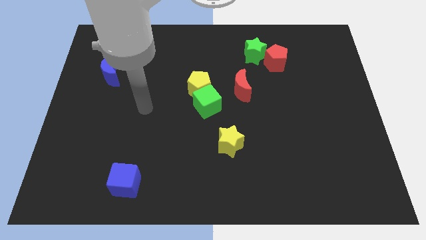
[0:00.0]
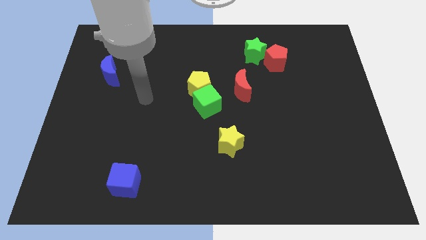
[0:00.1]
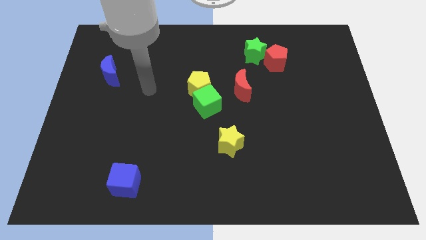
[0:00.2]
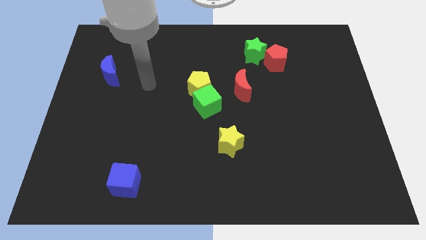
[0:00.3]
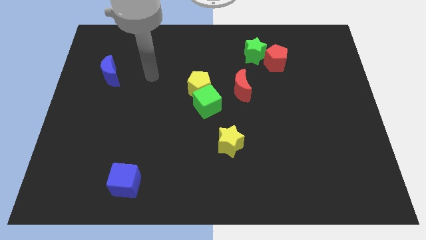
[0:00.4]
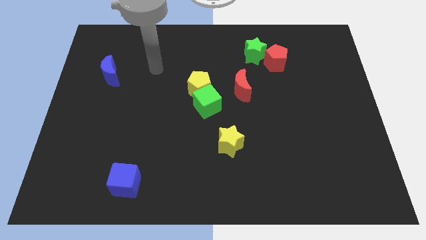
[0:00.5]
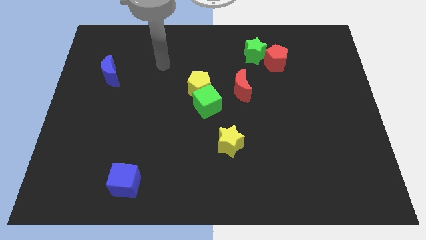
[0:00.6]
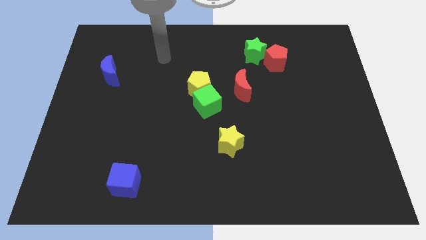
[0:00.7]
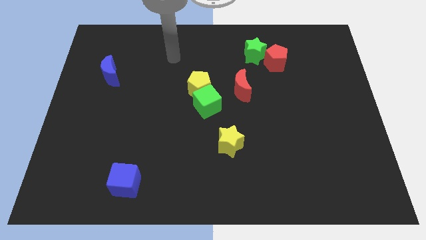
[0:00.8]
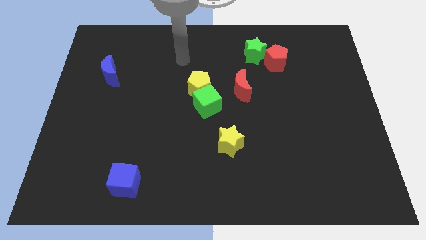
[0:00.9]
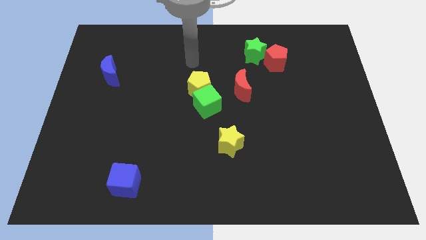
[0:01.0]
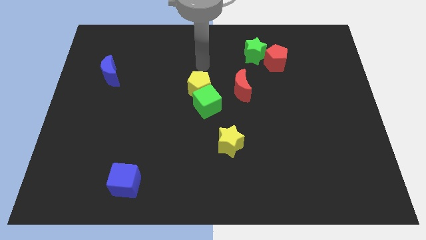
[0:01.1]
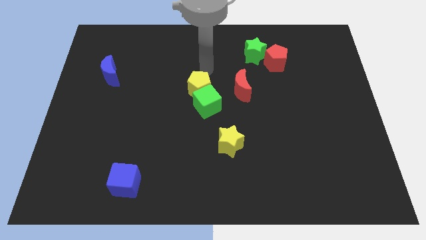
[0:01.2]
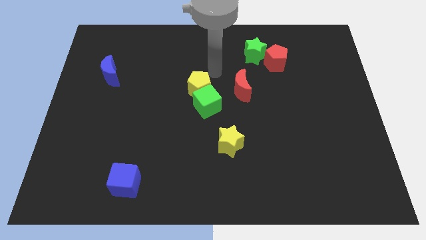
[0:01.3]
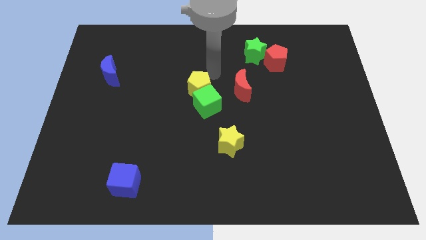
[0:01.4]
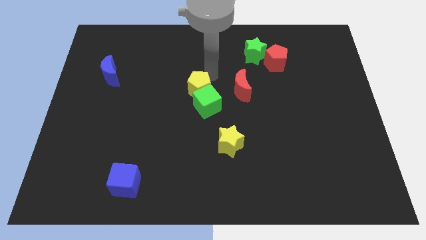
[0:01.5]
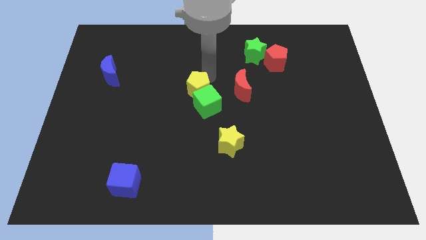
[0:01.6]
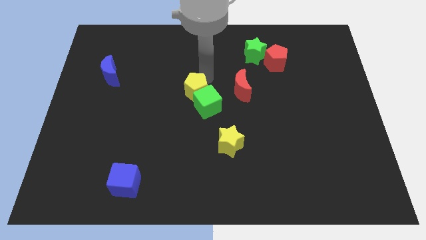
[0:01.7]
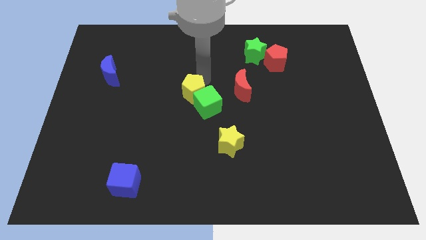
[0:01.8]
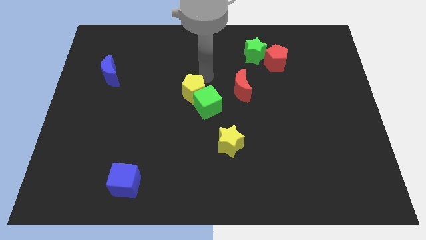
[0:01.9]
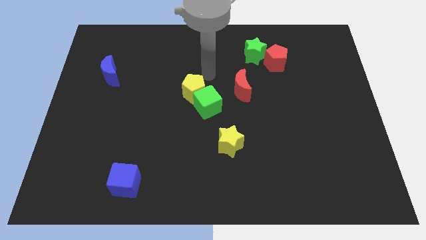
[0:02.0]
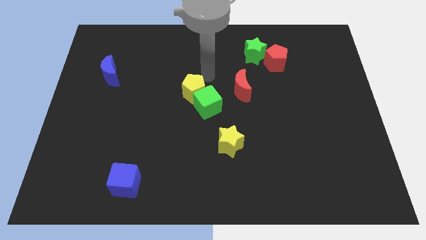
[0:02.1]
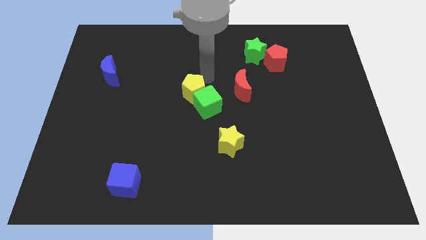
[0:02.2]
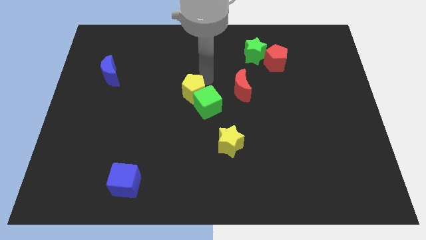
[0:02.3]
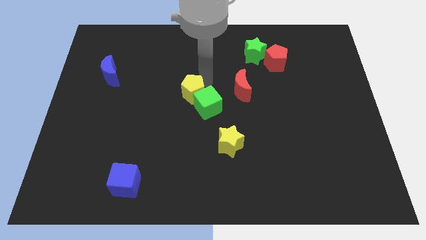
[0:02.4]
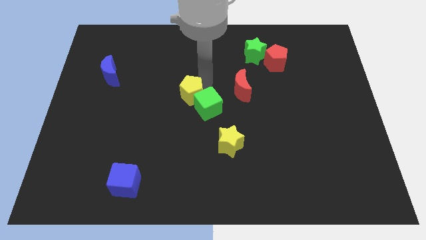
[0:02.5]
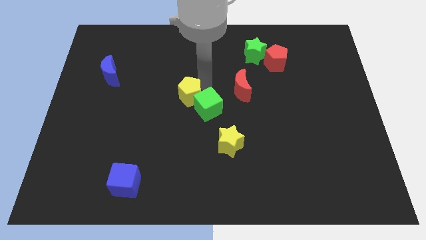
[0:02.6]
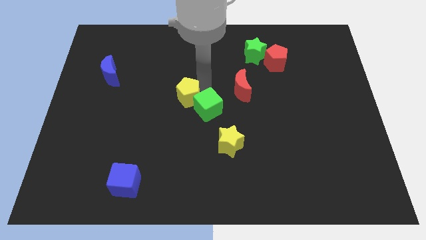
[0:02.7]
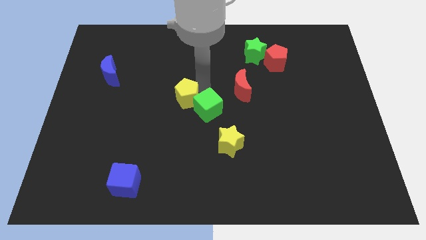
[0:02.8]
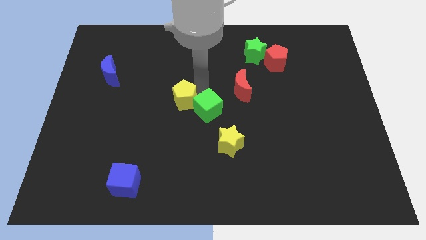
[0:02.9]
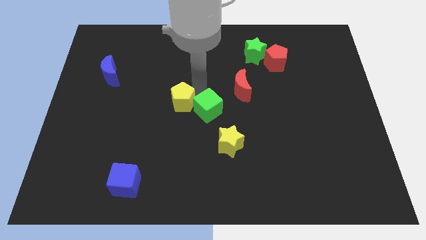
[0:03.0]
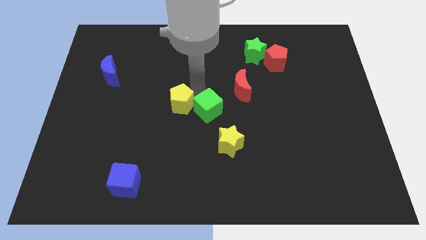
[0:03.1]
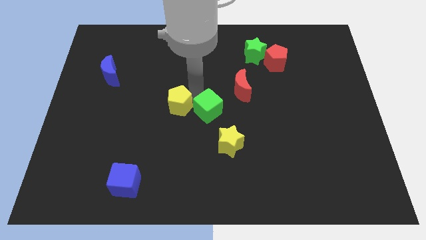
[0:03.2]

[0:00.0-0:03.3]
move the yellow pentagon somewhat downwards and then left

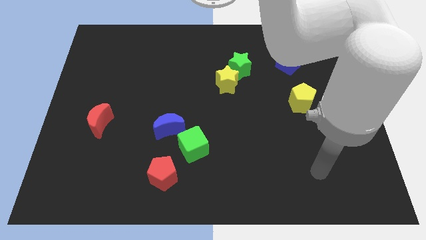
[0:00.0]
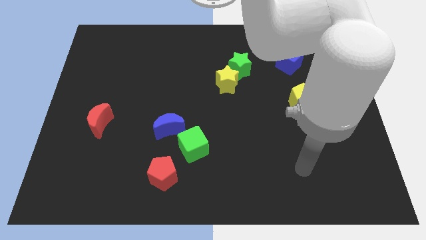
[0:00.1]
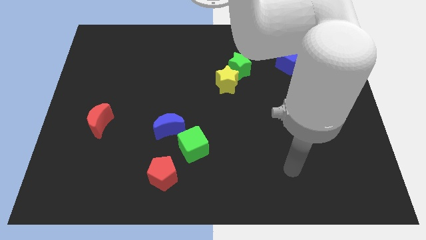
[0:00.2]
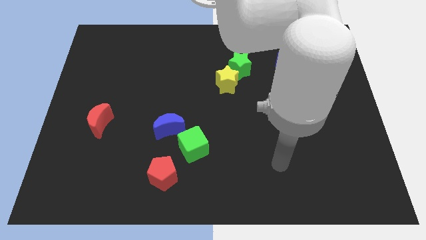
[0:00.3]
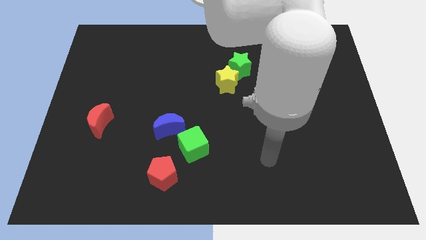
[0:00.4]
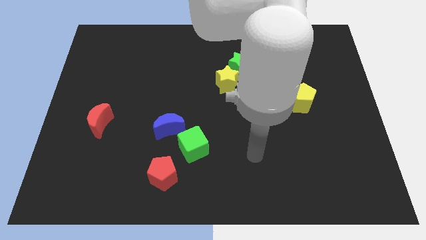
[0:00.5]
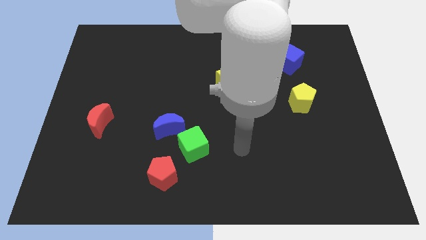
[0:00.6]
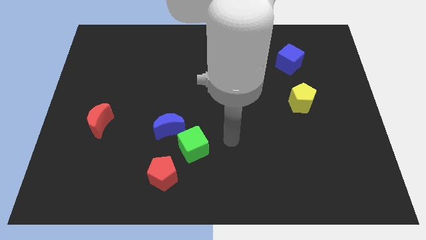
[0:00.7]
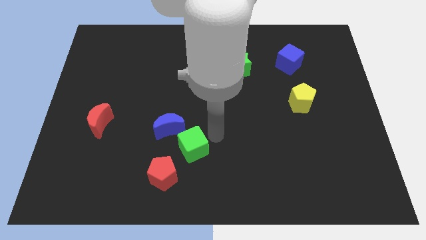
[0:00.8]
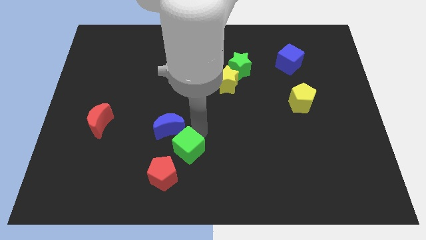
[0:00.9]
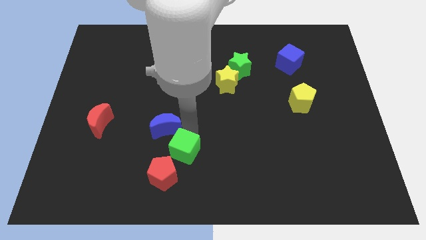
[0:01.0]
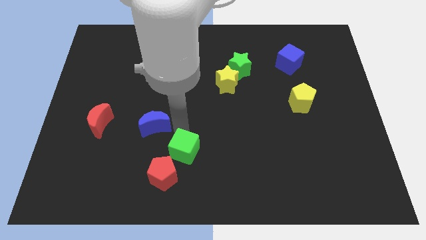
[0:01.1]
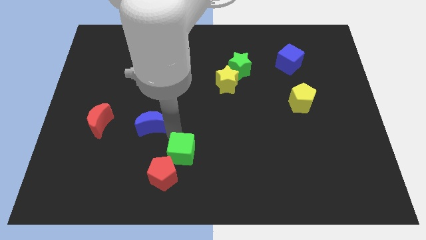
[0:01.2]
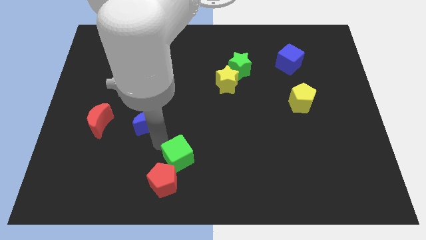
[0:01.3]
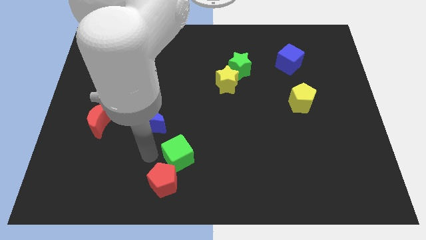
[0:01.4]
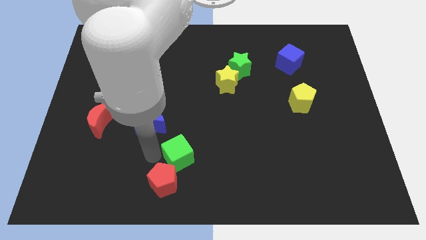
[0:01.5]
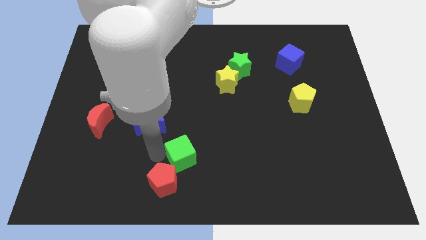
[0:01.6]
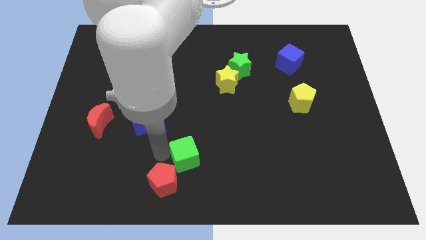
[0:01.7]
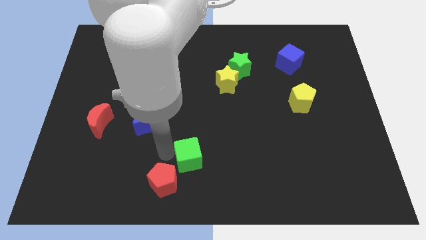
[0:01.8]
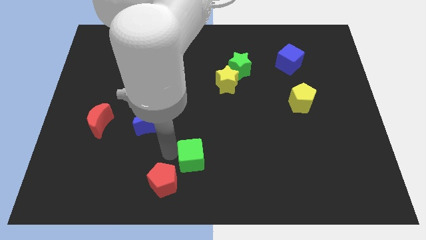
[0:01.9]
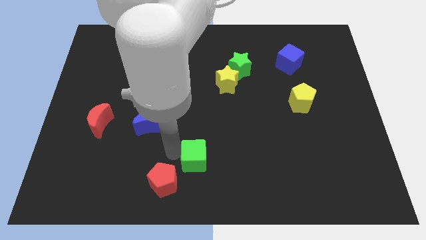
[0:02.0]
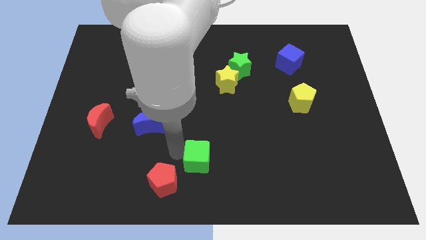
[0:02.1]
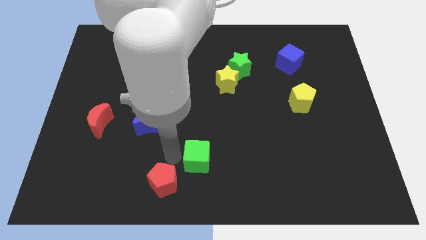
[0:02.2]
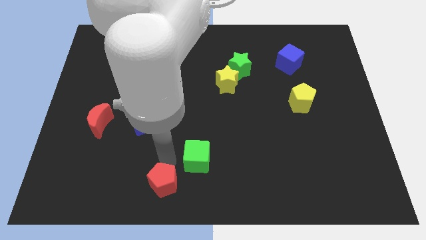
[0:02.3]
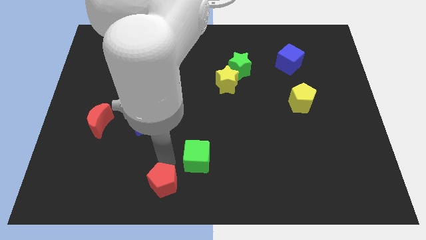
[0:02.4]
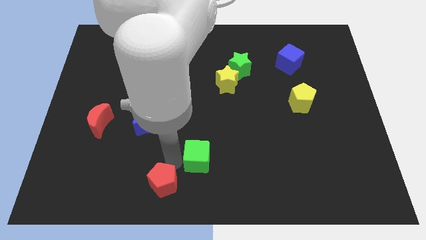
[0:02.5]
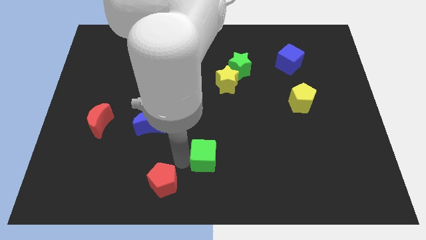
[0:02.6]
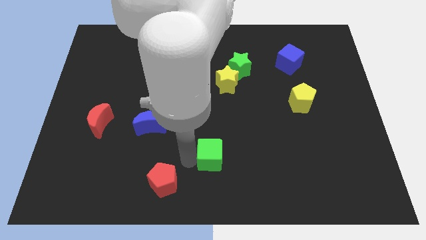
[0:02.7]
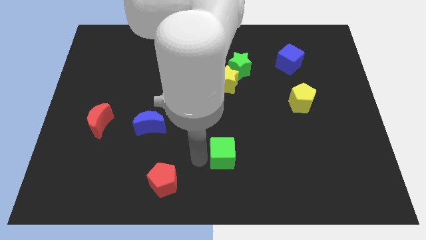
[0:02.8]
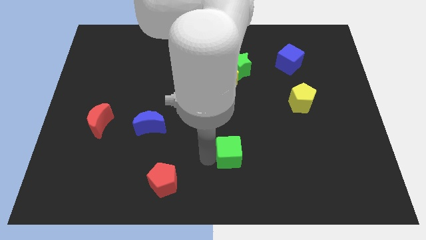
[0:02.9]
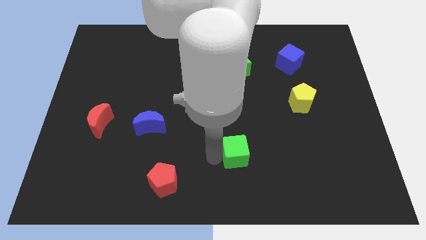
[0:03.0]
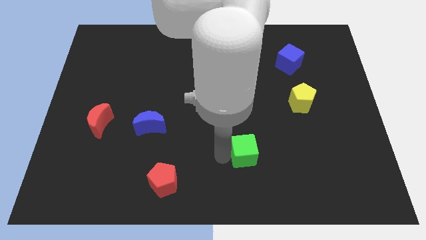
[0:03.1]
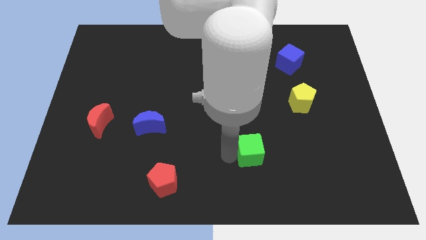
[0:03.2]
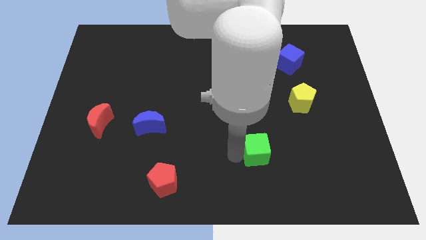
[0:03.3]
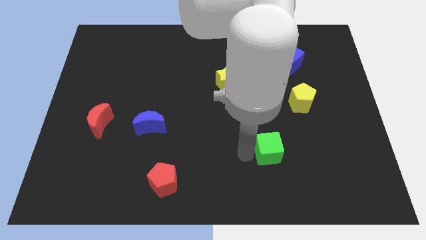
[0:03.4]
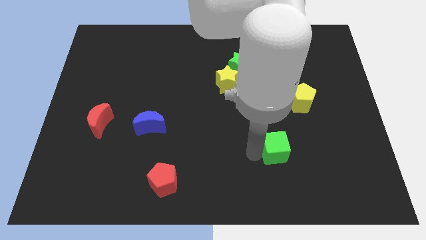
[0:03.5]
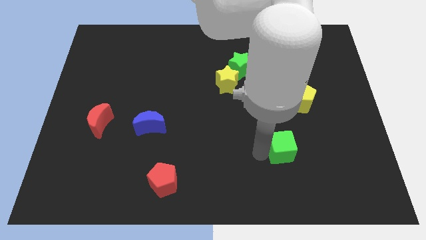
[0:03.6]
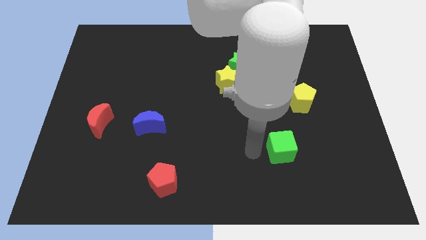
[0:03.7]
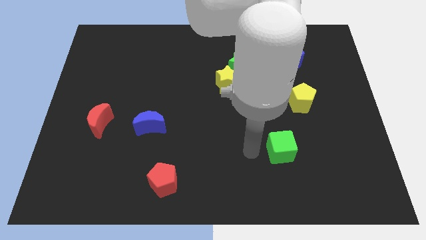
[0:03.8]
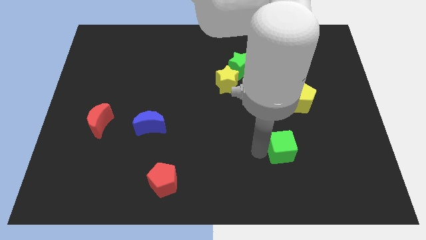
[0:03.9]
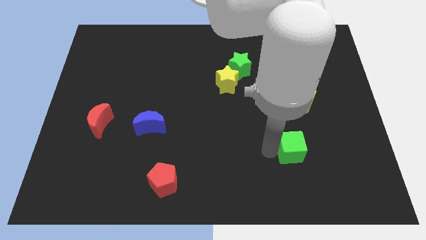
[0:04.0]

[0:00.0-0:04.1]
push the green cube to the right

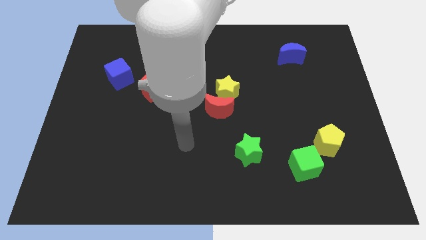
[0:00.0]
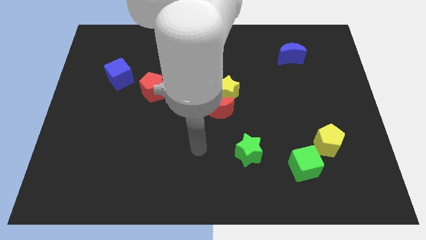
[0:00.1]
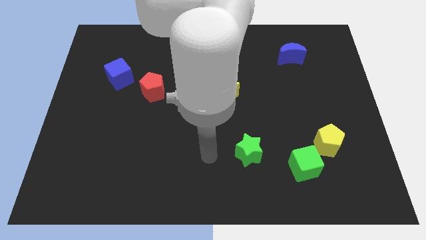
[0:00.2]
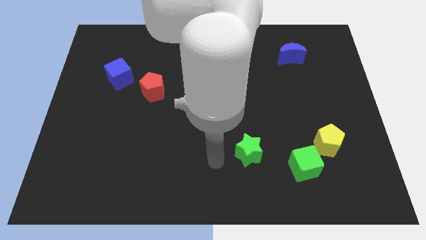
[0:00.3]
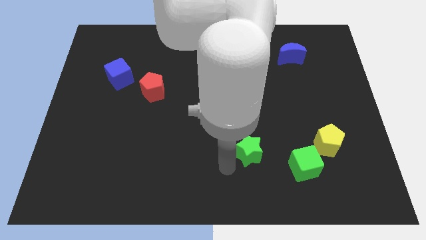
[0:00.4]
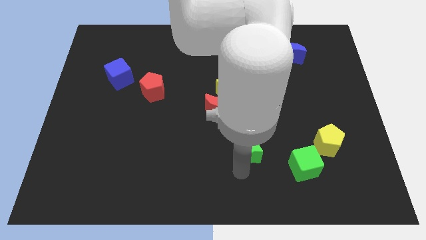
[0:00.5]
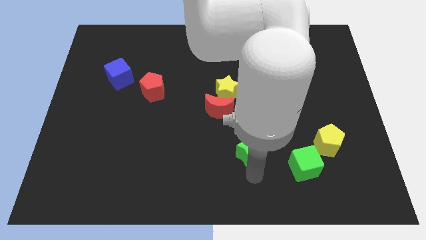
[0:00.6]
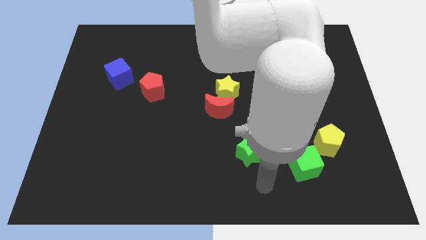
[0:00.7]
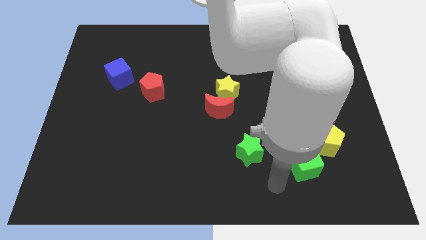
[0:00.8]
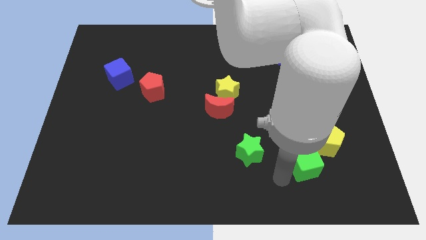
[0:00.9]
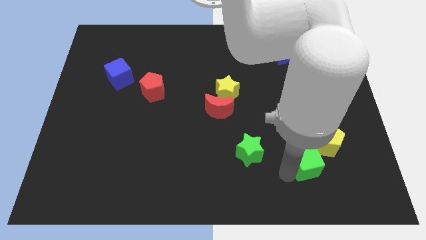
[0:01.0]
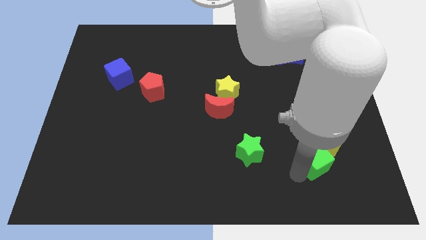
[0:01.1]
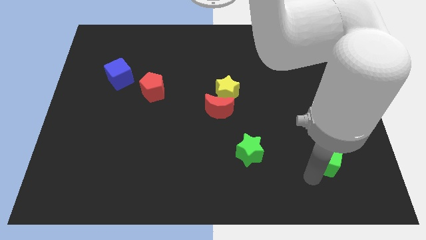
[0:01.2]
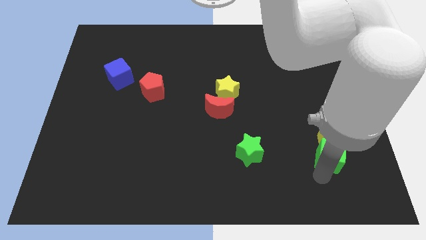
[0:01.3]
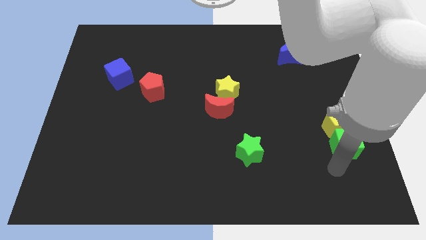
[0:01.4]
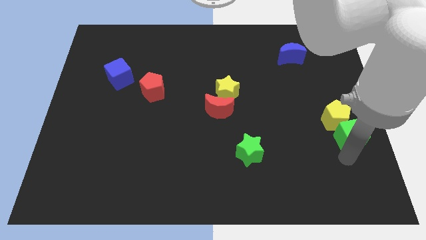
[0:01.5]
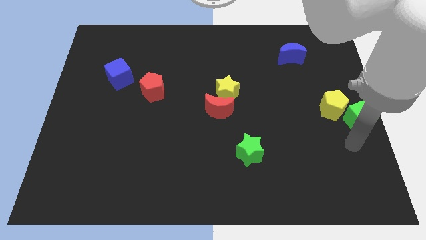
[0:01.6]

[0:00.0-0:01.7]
slightly slide the yellow pentagon upwards
